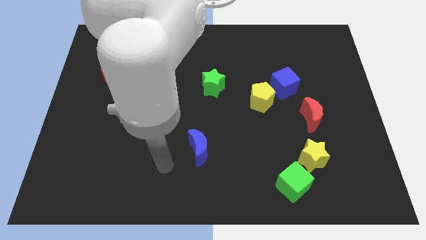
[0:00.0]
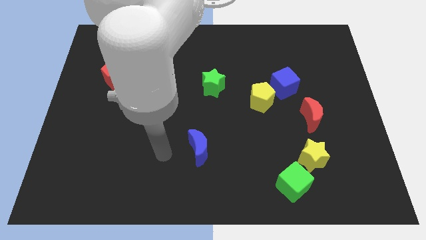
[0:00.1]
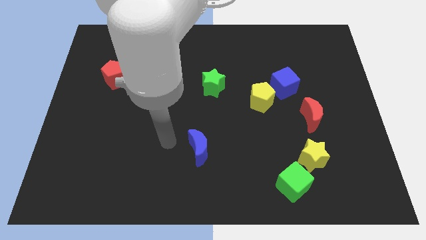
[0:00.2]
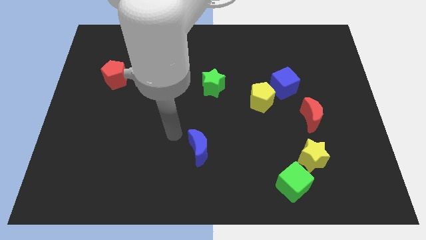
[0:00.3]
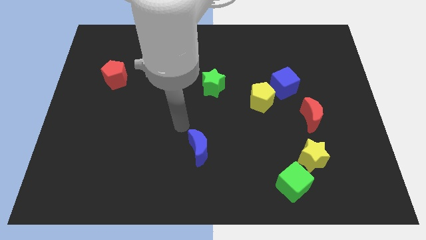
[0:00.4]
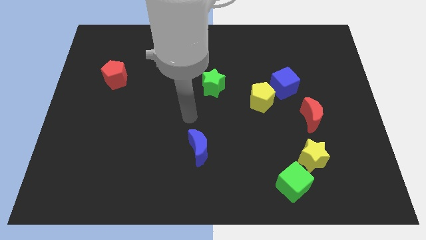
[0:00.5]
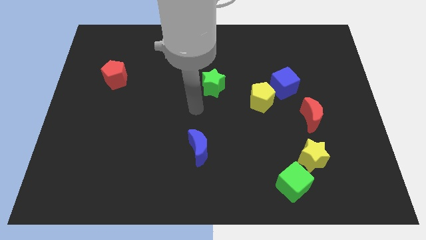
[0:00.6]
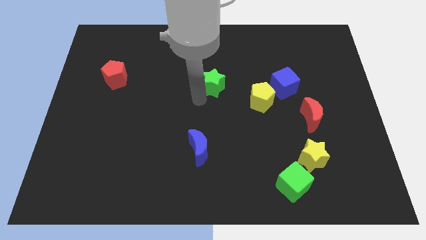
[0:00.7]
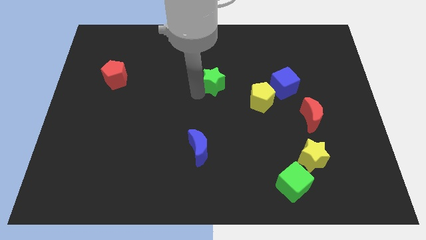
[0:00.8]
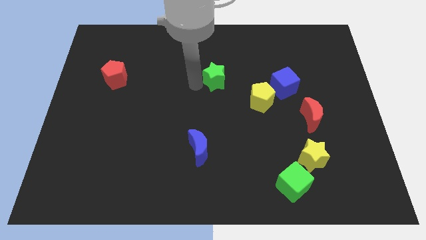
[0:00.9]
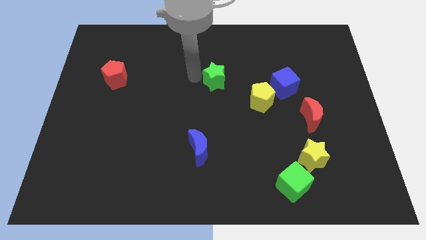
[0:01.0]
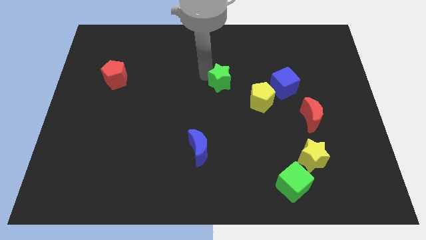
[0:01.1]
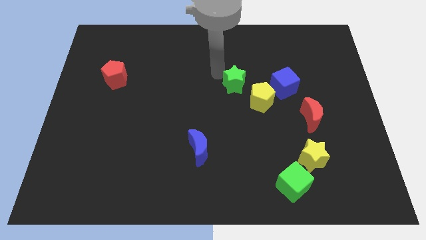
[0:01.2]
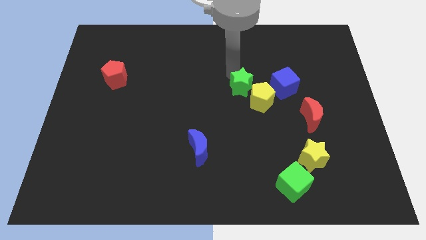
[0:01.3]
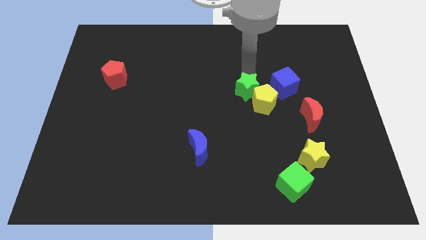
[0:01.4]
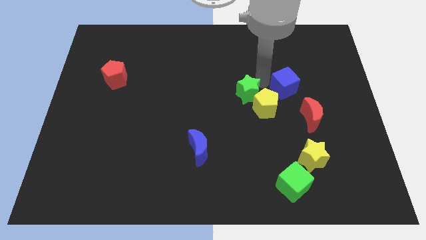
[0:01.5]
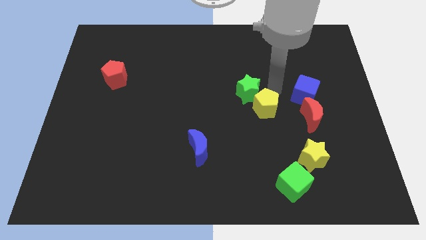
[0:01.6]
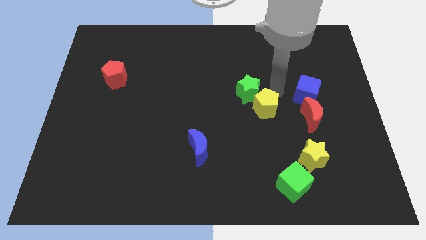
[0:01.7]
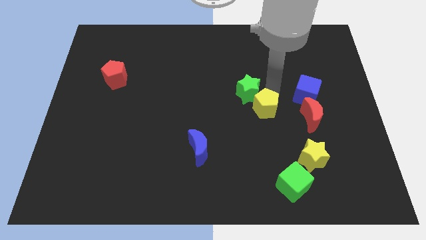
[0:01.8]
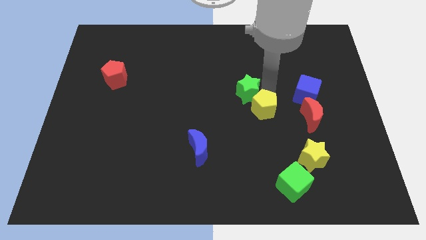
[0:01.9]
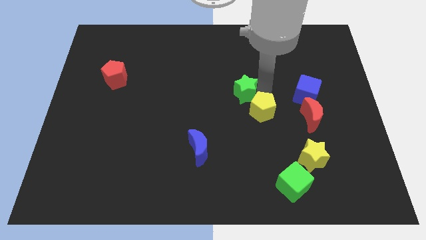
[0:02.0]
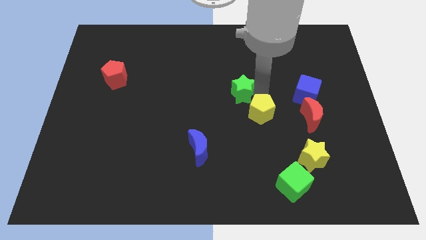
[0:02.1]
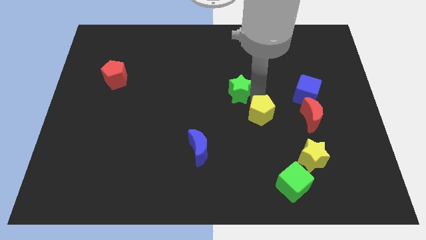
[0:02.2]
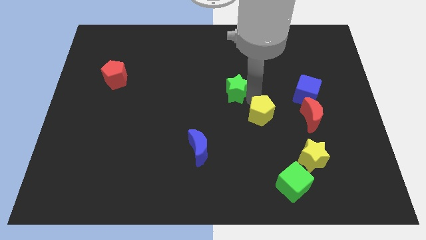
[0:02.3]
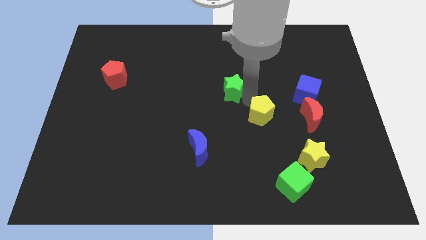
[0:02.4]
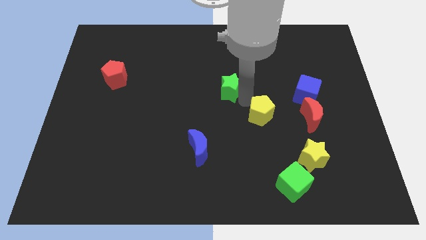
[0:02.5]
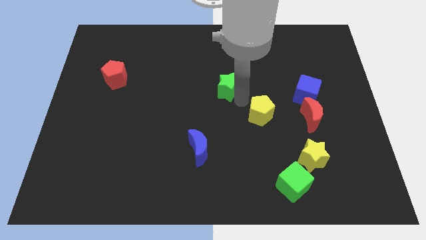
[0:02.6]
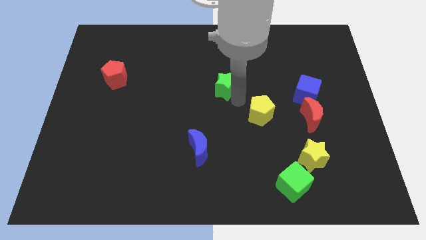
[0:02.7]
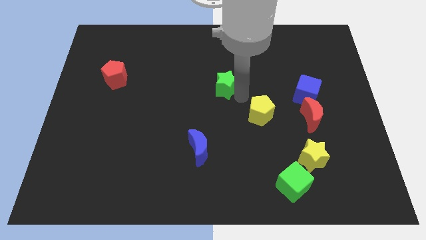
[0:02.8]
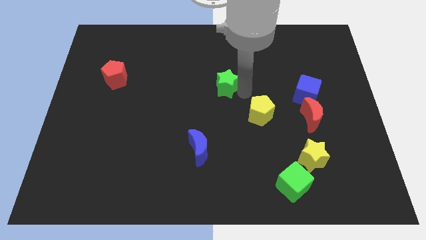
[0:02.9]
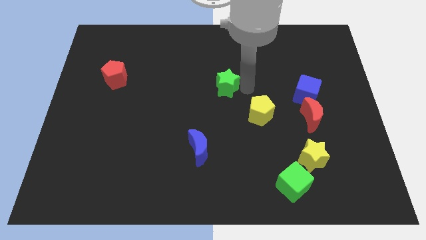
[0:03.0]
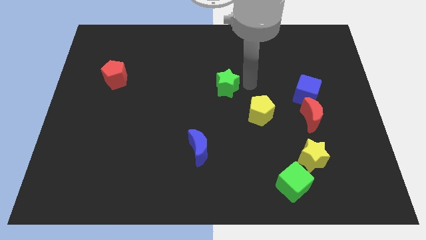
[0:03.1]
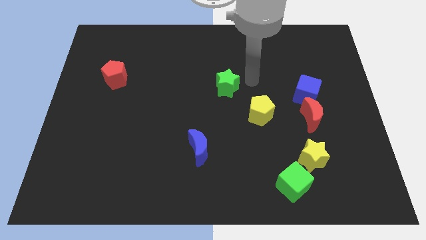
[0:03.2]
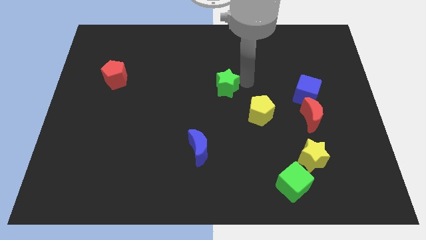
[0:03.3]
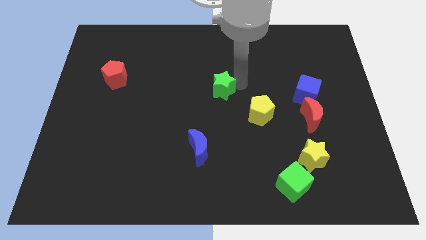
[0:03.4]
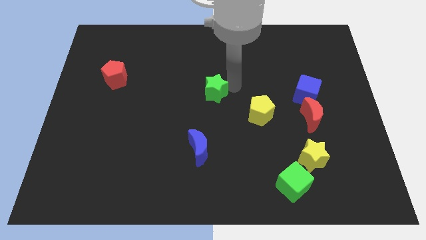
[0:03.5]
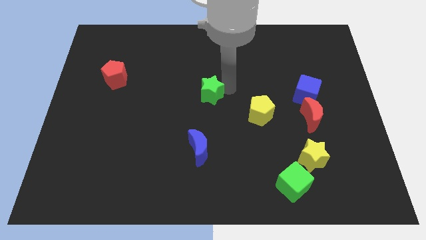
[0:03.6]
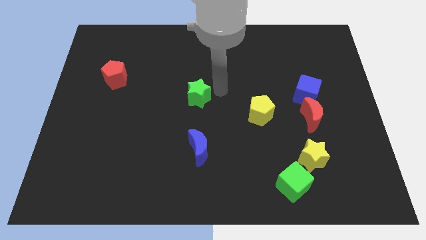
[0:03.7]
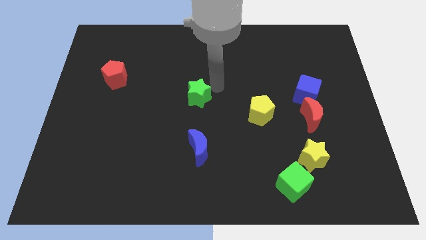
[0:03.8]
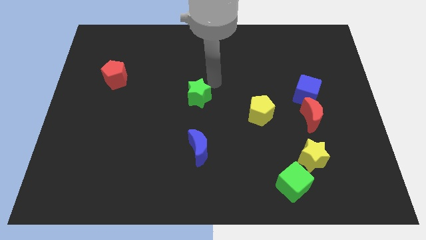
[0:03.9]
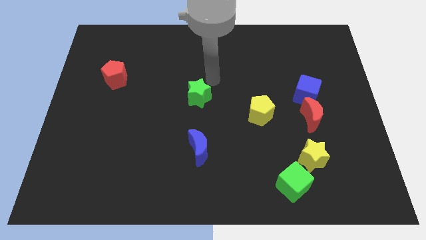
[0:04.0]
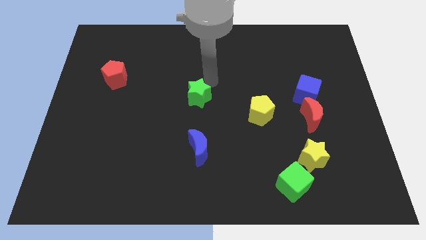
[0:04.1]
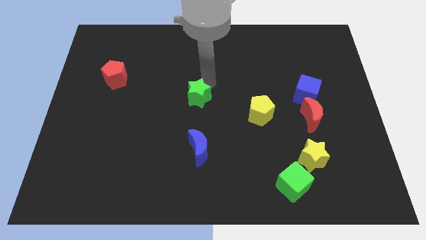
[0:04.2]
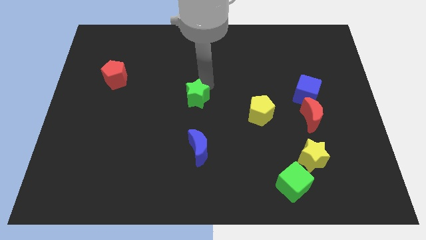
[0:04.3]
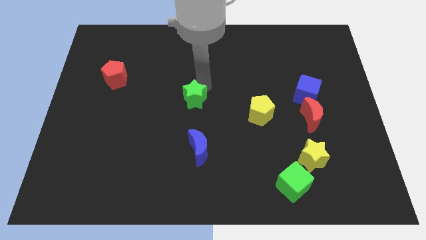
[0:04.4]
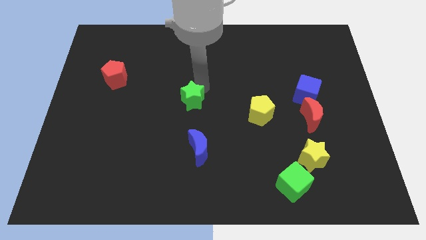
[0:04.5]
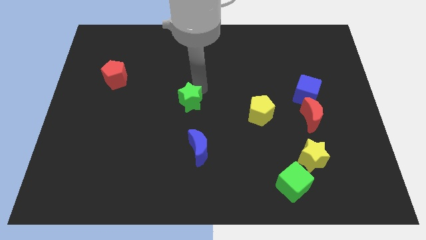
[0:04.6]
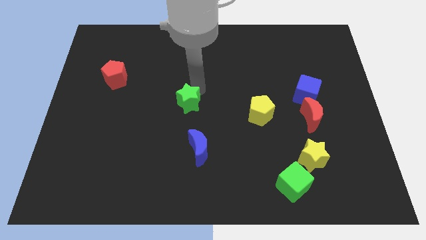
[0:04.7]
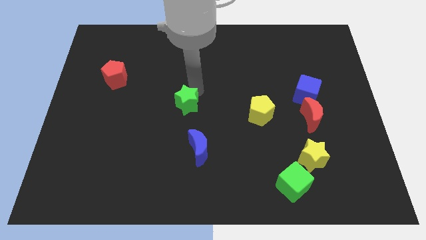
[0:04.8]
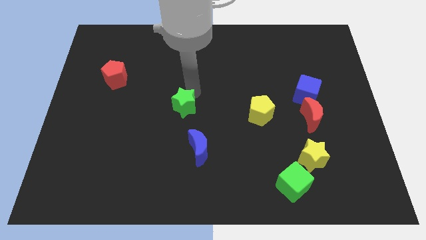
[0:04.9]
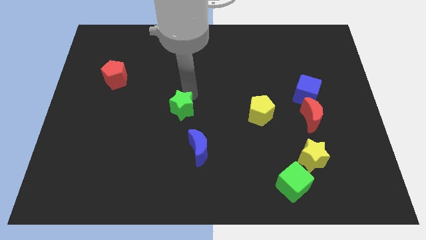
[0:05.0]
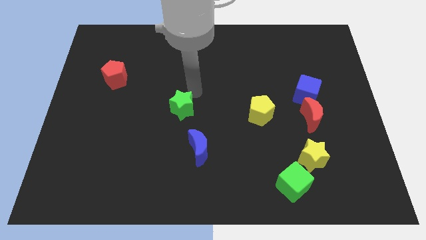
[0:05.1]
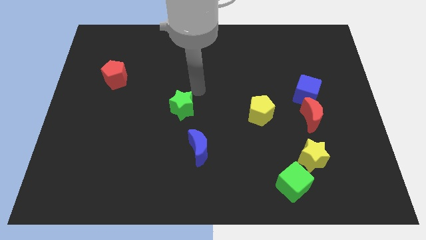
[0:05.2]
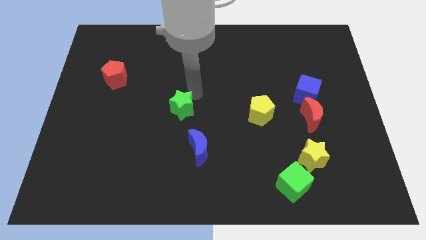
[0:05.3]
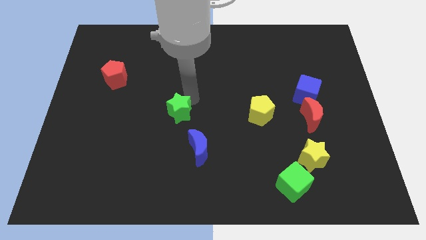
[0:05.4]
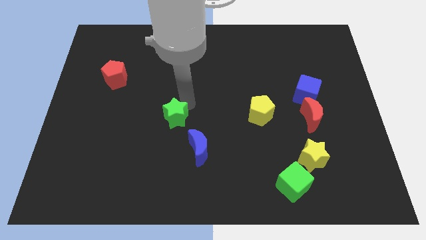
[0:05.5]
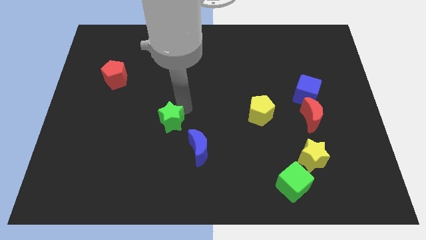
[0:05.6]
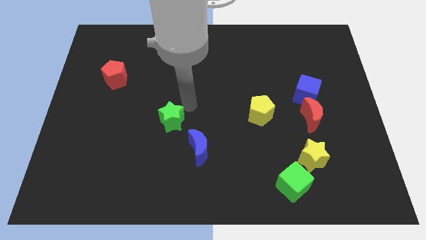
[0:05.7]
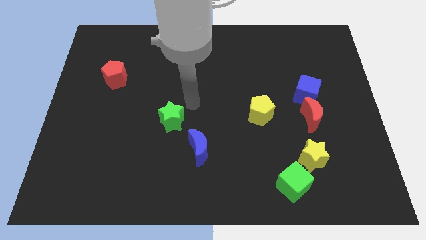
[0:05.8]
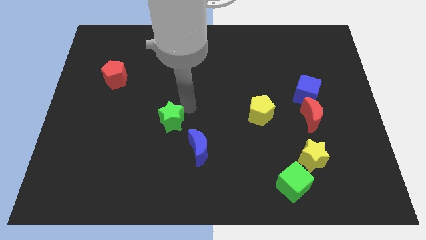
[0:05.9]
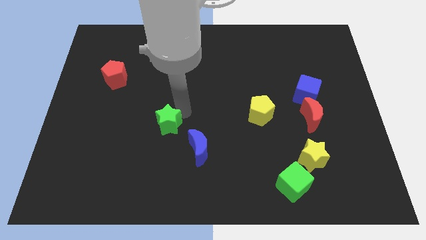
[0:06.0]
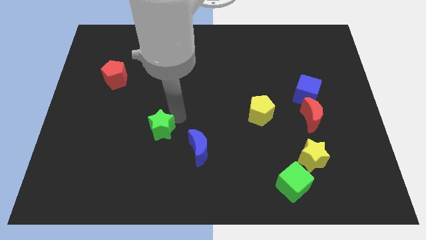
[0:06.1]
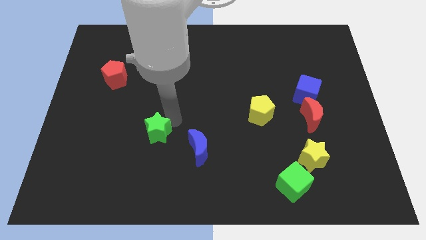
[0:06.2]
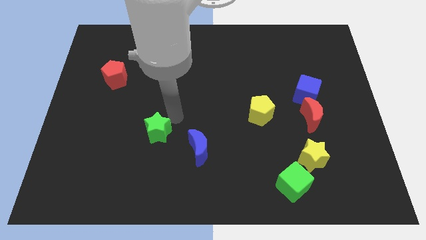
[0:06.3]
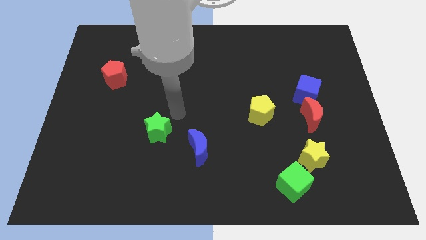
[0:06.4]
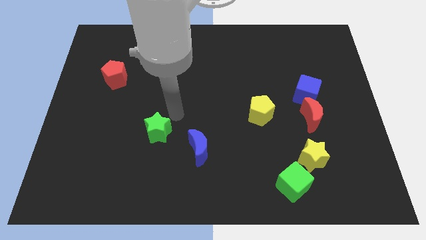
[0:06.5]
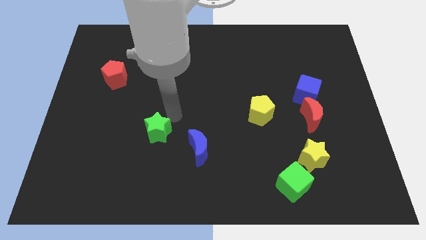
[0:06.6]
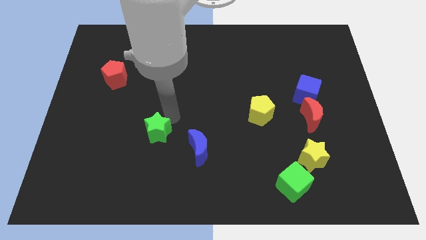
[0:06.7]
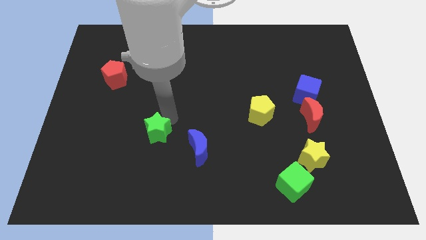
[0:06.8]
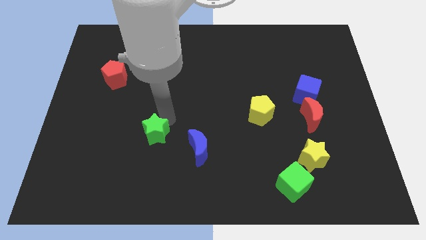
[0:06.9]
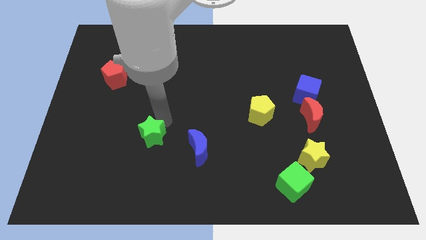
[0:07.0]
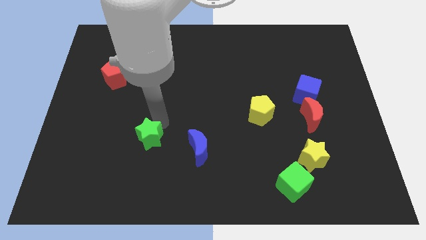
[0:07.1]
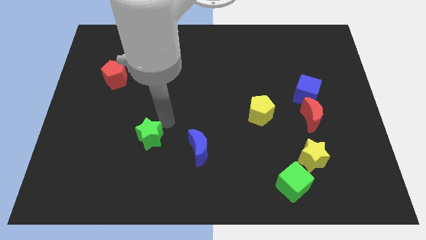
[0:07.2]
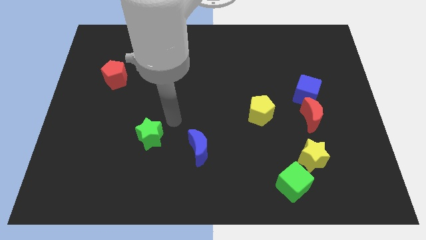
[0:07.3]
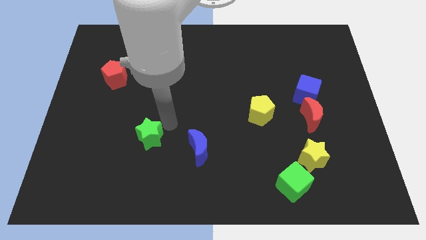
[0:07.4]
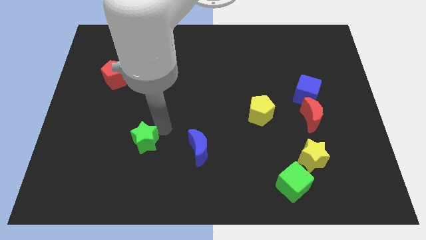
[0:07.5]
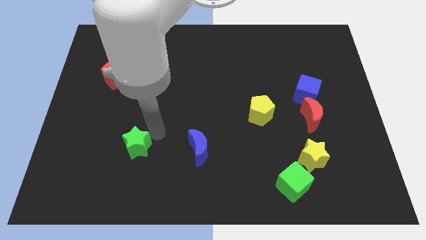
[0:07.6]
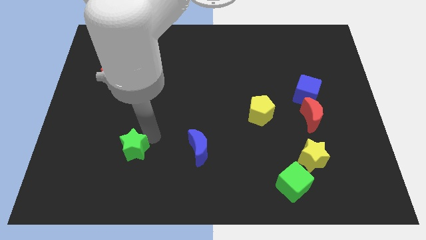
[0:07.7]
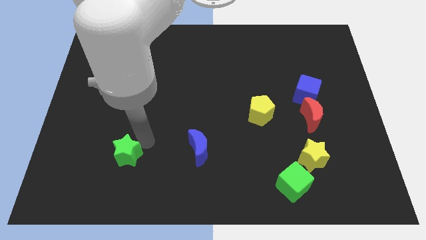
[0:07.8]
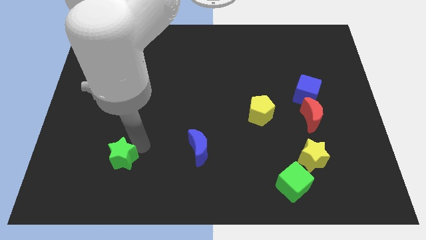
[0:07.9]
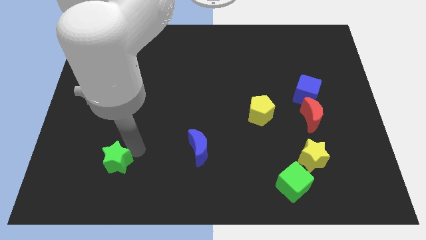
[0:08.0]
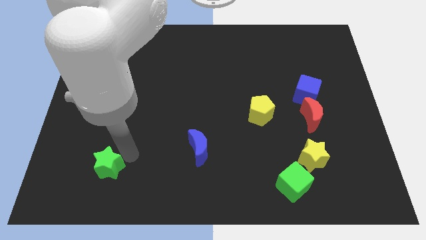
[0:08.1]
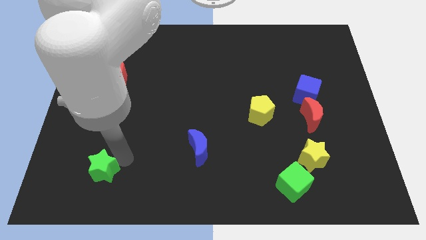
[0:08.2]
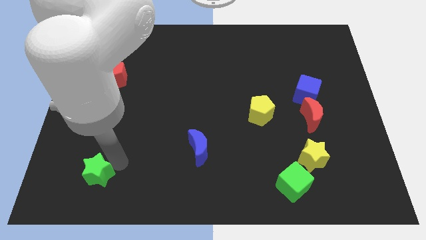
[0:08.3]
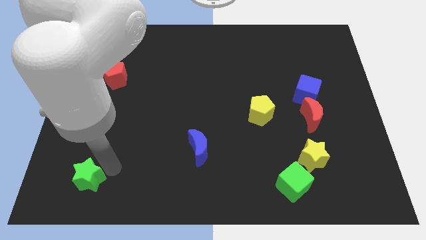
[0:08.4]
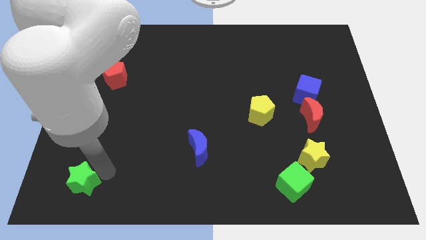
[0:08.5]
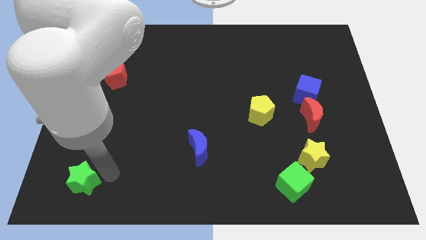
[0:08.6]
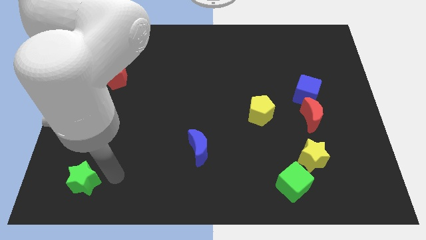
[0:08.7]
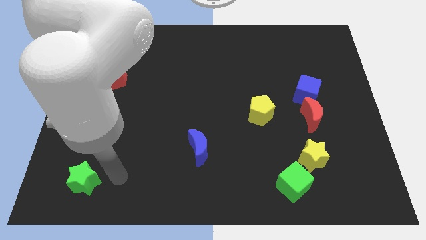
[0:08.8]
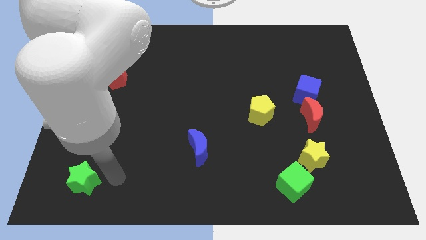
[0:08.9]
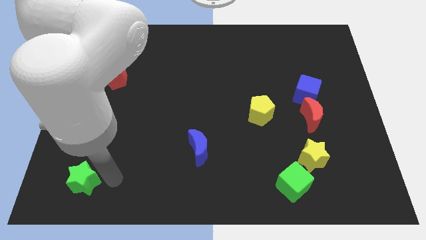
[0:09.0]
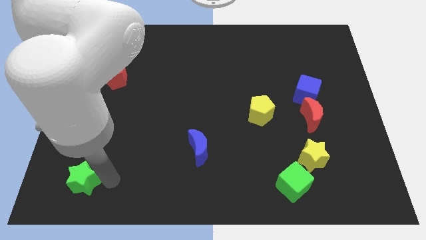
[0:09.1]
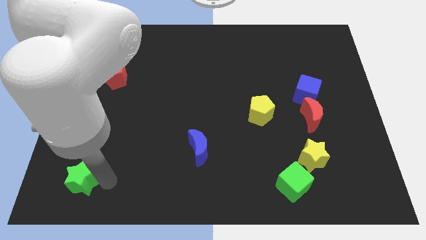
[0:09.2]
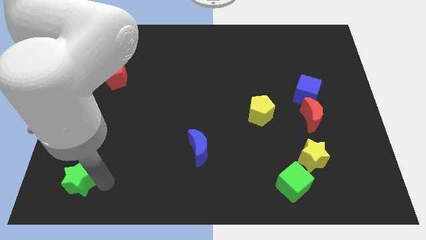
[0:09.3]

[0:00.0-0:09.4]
move the green star to the bottom left
